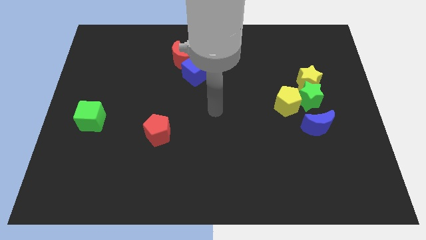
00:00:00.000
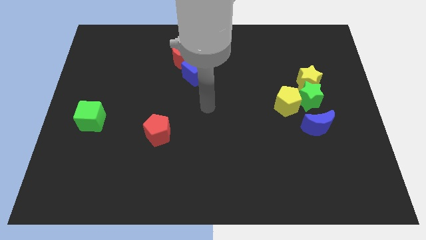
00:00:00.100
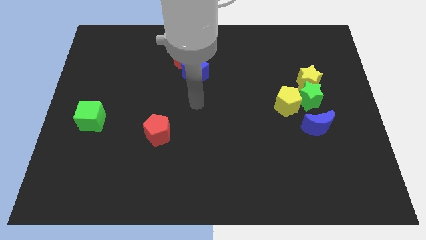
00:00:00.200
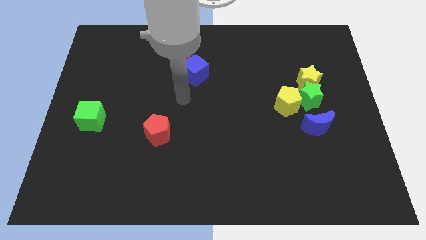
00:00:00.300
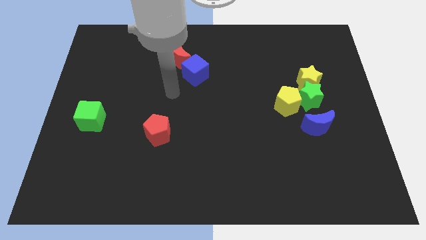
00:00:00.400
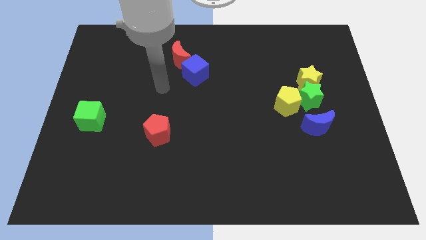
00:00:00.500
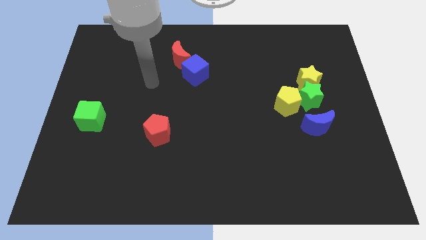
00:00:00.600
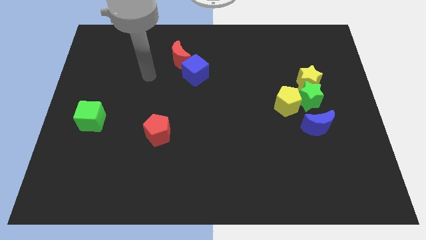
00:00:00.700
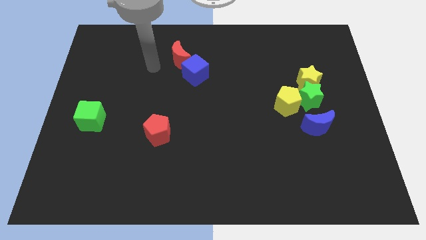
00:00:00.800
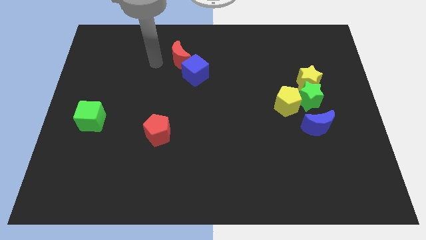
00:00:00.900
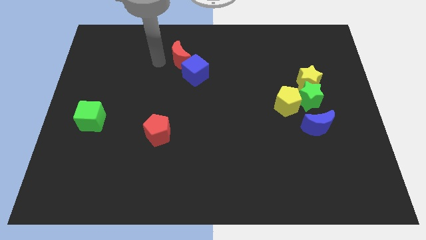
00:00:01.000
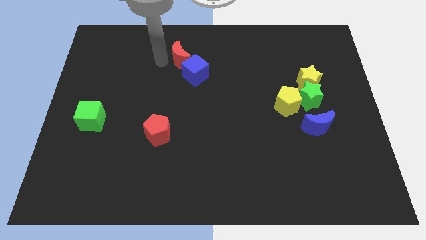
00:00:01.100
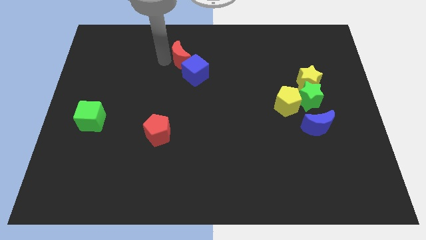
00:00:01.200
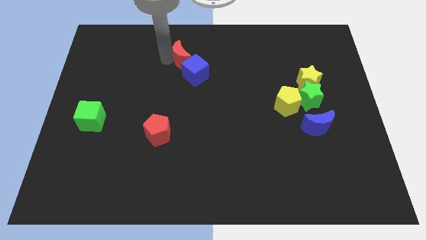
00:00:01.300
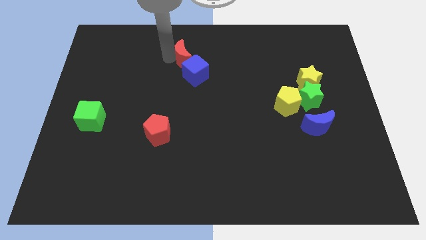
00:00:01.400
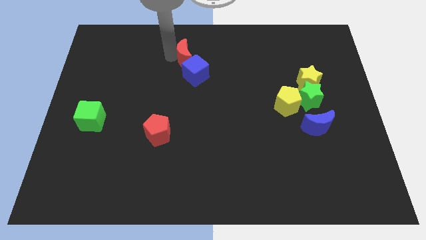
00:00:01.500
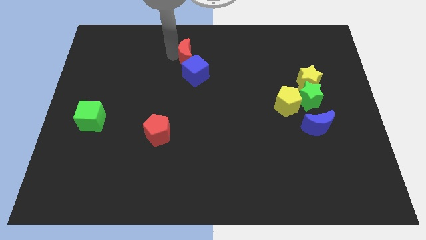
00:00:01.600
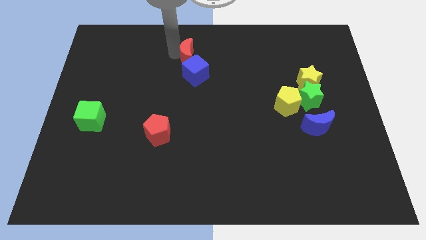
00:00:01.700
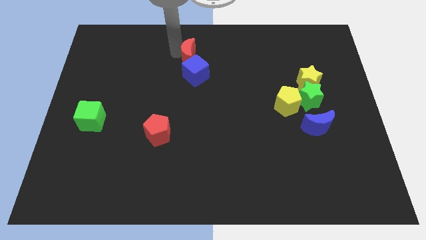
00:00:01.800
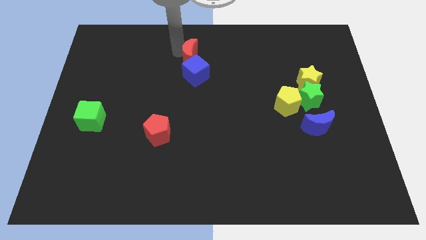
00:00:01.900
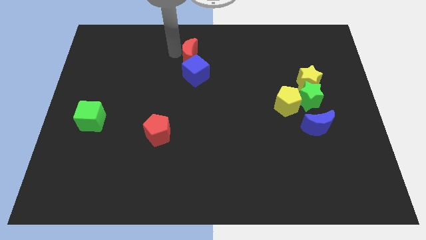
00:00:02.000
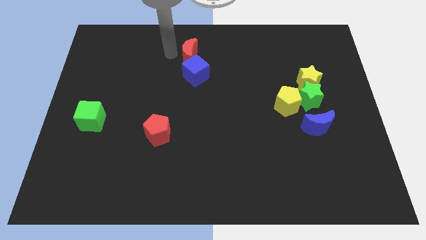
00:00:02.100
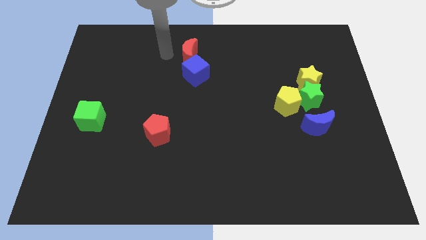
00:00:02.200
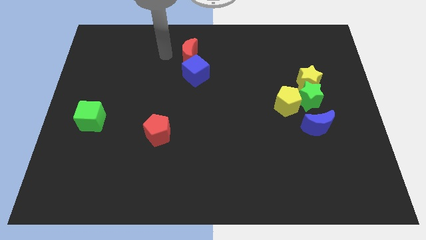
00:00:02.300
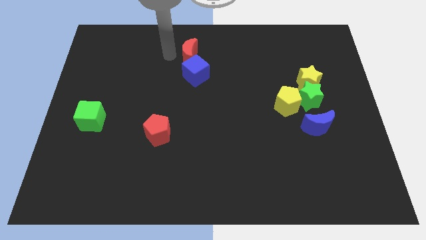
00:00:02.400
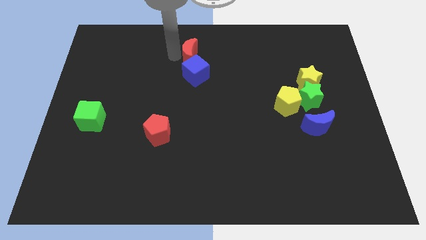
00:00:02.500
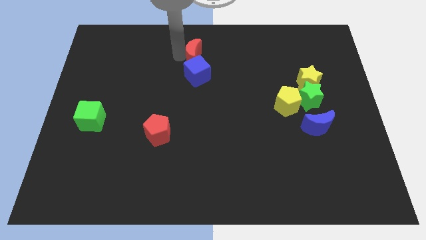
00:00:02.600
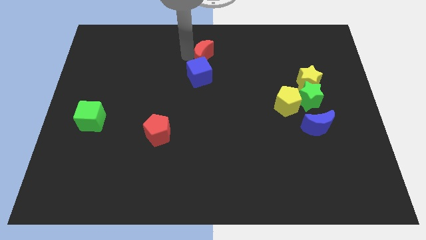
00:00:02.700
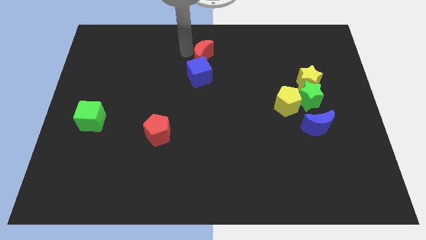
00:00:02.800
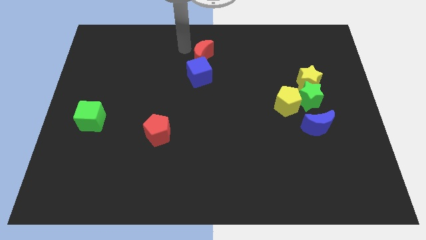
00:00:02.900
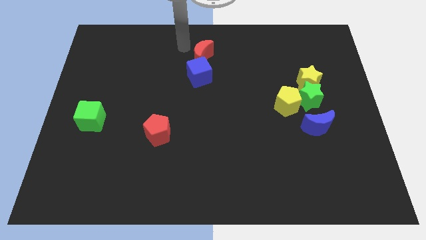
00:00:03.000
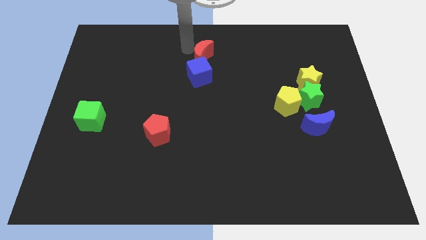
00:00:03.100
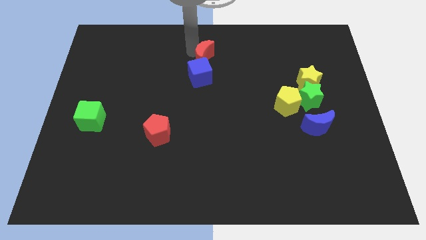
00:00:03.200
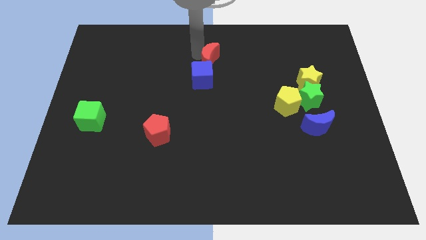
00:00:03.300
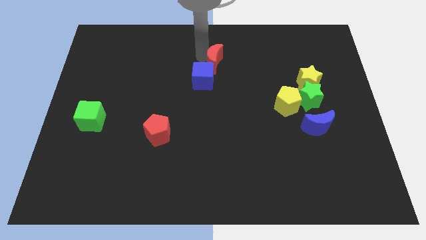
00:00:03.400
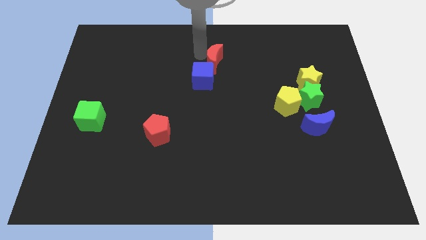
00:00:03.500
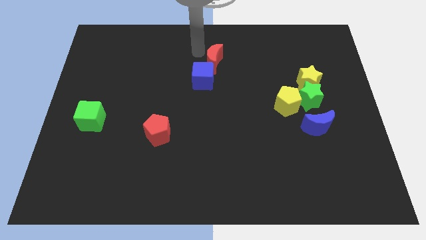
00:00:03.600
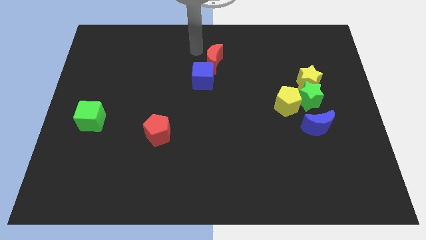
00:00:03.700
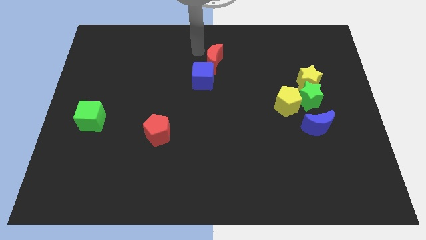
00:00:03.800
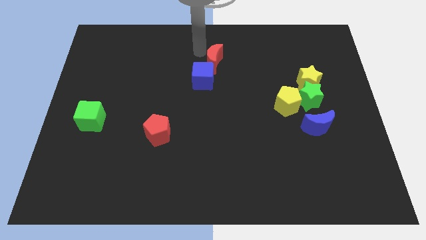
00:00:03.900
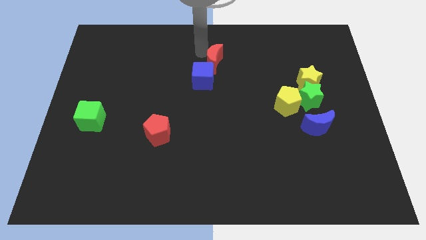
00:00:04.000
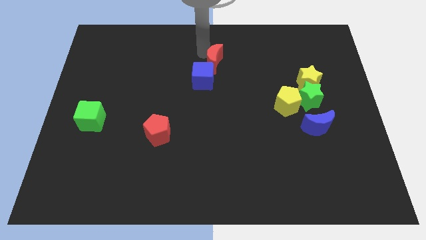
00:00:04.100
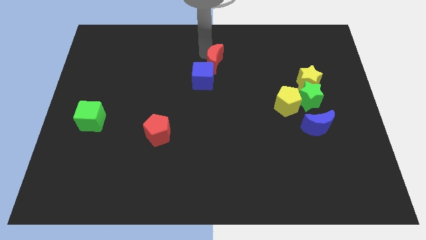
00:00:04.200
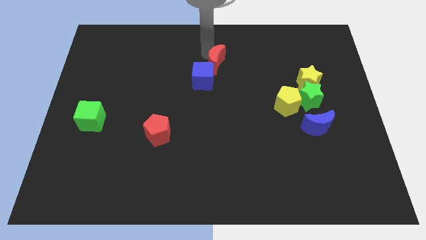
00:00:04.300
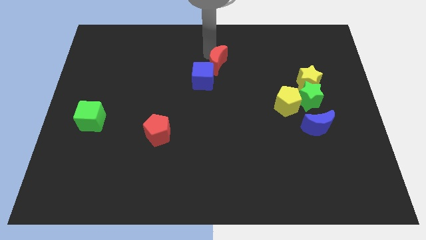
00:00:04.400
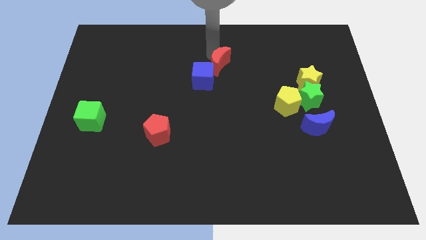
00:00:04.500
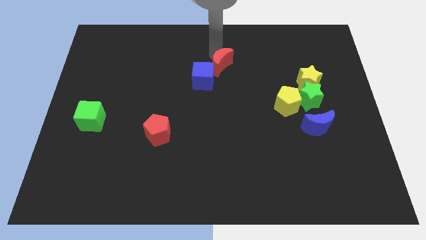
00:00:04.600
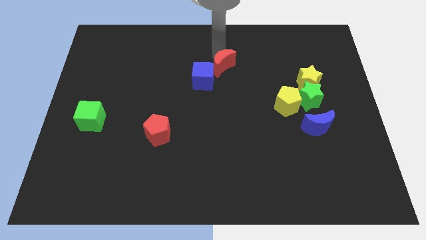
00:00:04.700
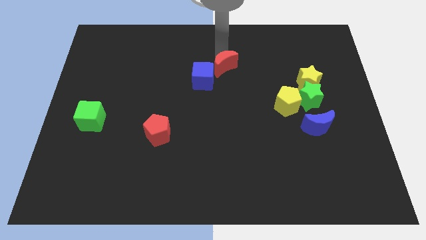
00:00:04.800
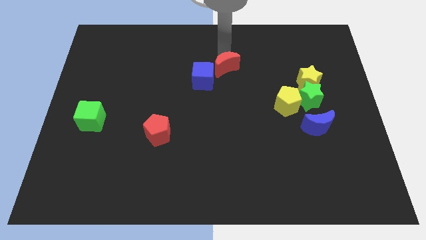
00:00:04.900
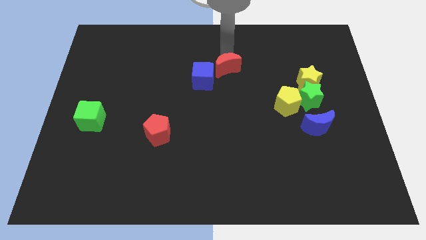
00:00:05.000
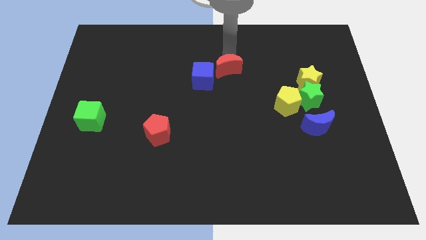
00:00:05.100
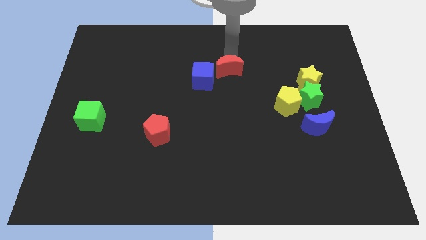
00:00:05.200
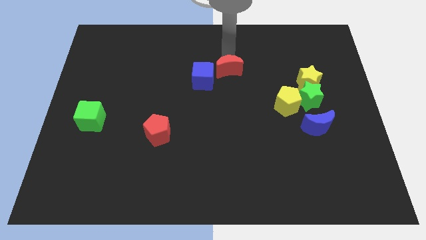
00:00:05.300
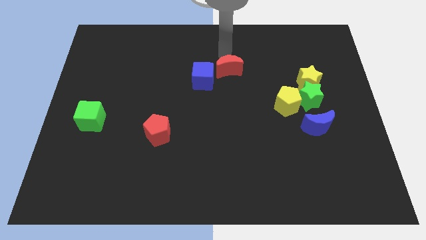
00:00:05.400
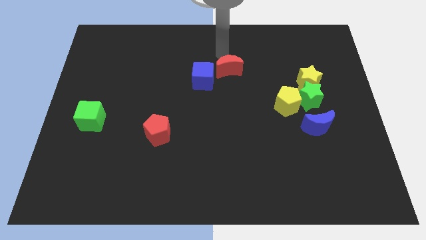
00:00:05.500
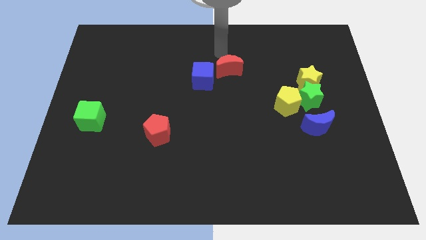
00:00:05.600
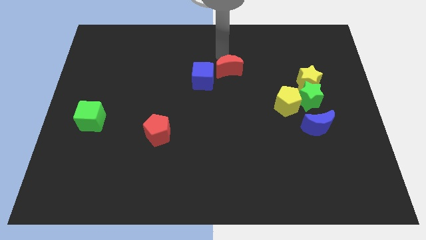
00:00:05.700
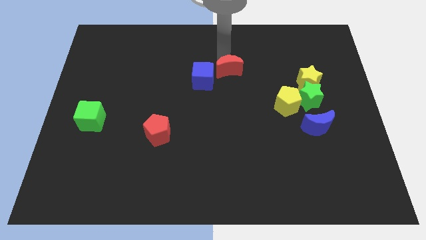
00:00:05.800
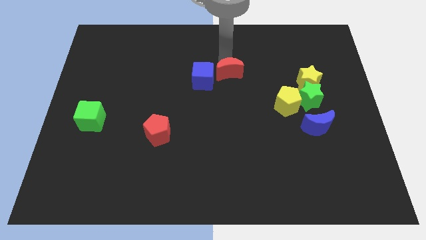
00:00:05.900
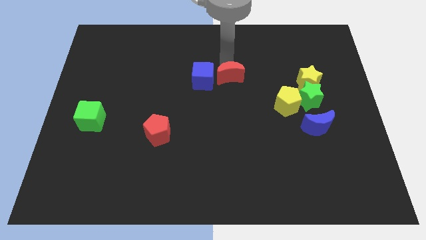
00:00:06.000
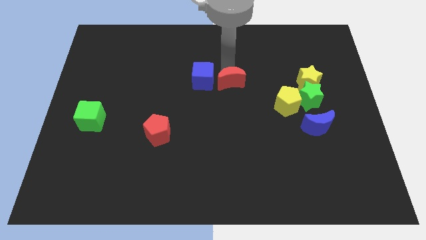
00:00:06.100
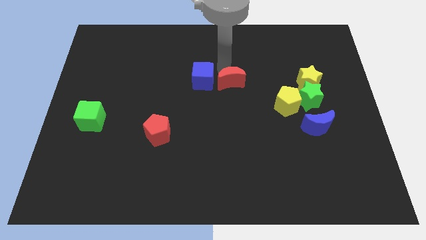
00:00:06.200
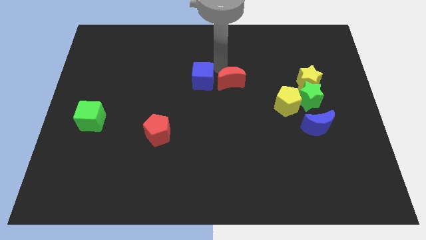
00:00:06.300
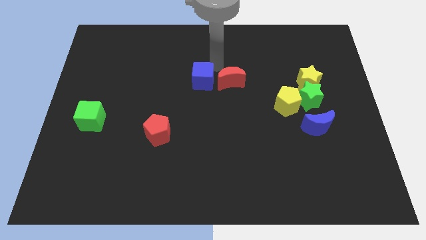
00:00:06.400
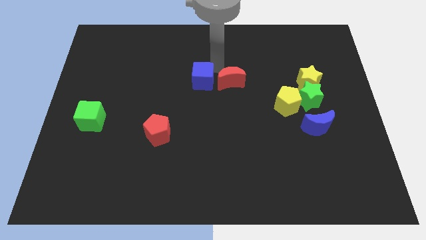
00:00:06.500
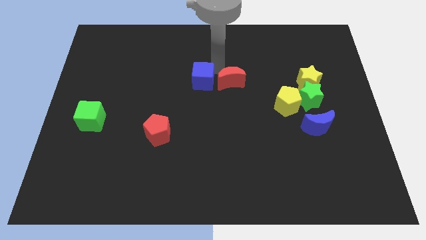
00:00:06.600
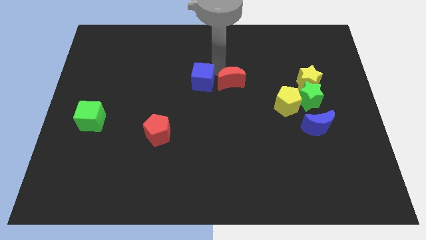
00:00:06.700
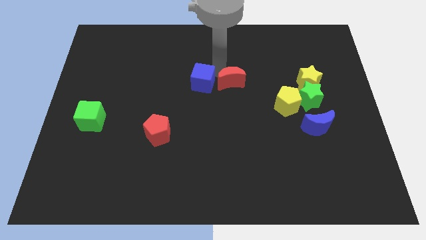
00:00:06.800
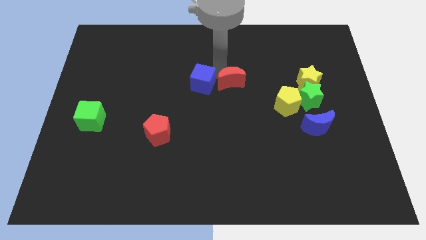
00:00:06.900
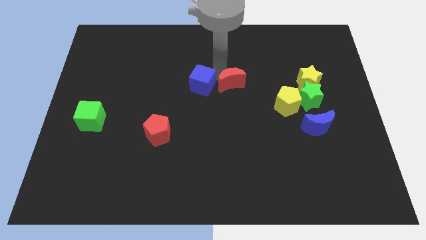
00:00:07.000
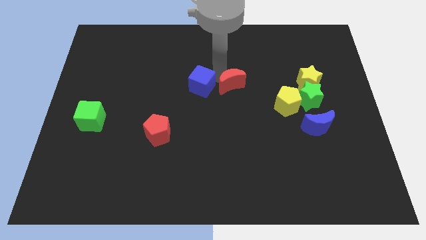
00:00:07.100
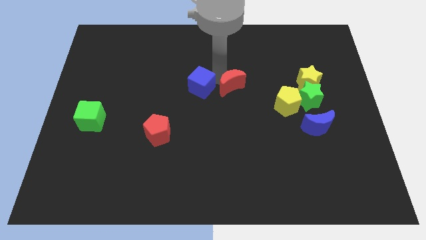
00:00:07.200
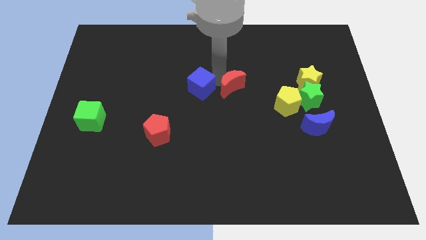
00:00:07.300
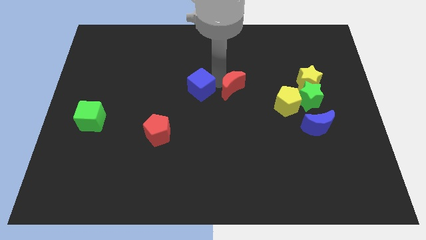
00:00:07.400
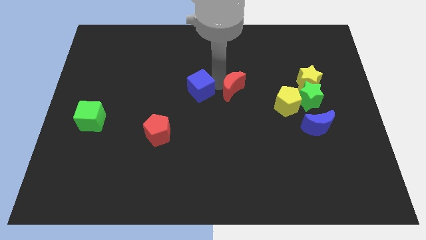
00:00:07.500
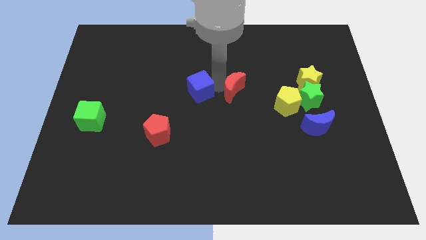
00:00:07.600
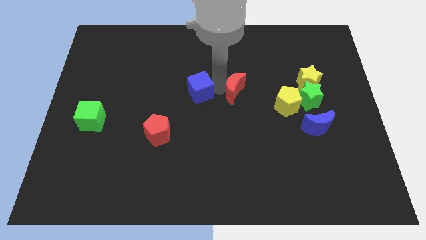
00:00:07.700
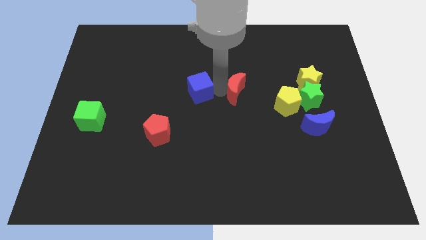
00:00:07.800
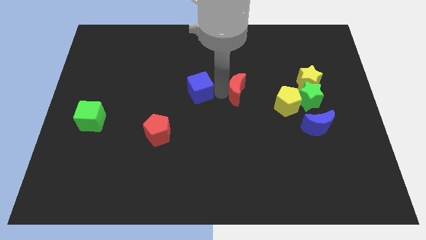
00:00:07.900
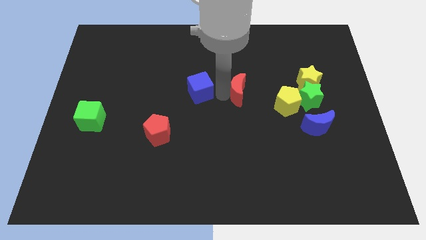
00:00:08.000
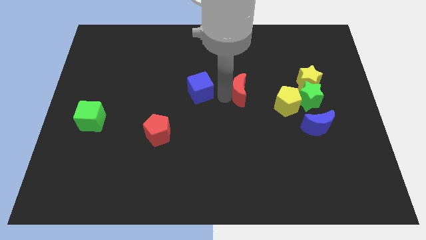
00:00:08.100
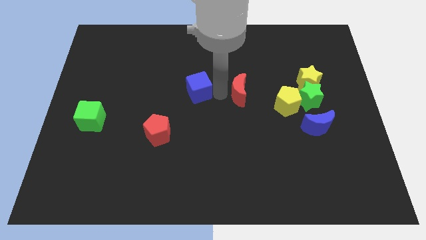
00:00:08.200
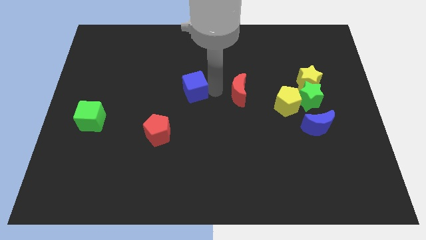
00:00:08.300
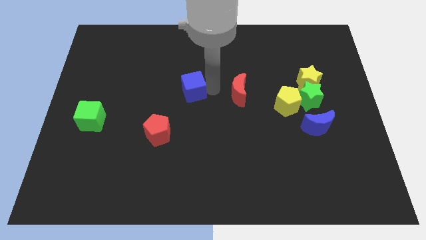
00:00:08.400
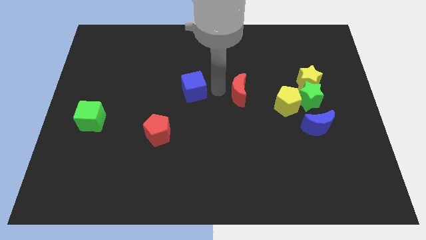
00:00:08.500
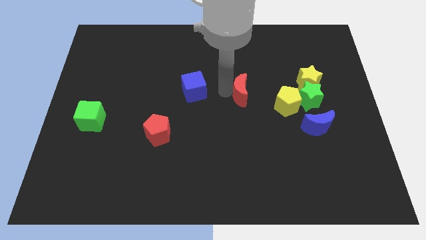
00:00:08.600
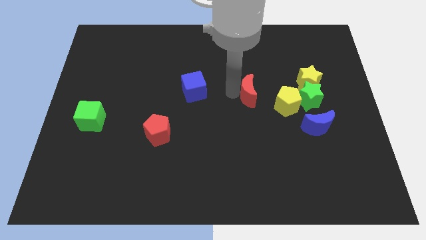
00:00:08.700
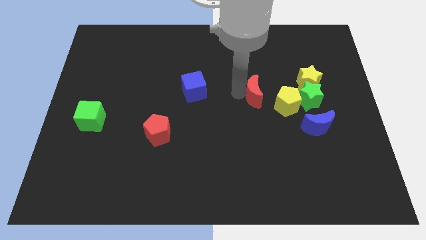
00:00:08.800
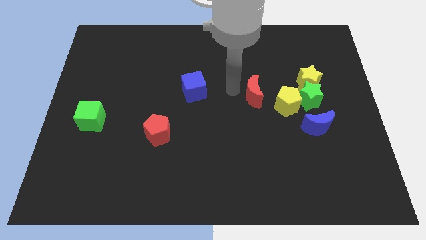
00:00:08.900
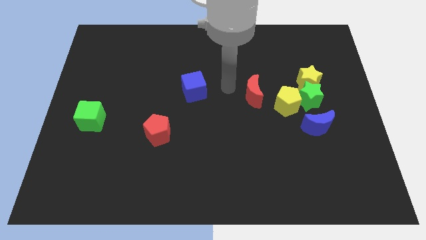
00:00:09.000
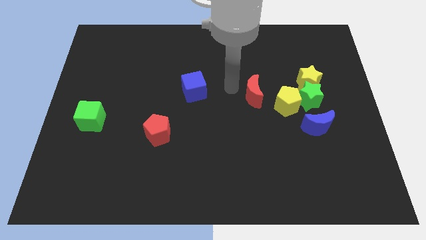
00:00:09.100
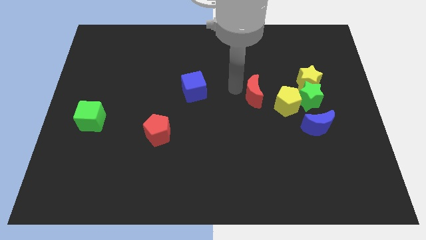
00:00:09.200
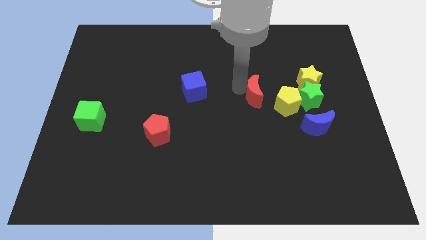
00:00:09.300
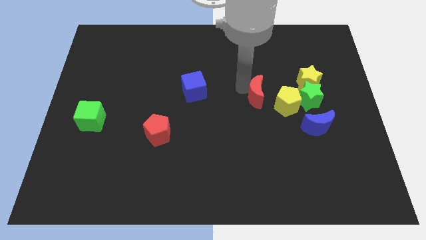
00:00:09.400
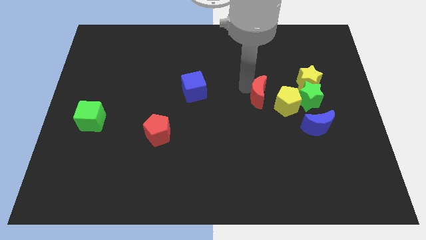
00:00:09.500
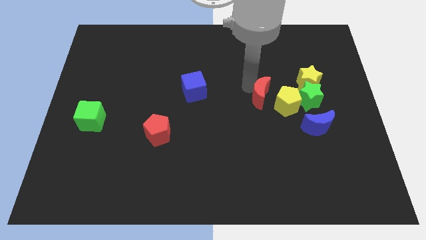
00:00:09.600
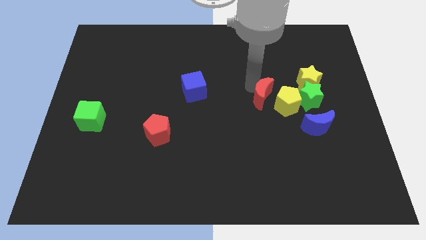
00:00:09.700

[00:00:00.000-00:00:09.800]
slide the red moon close to the yellow pentagon
